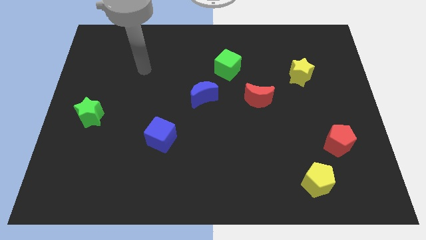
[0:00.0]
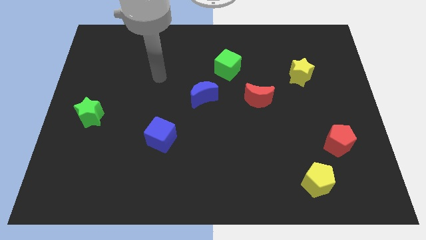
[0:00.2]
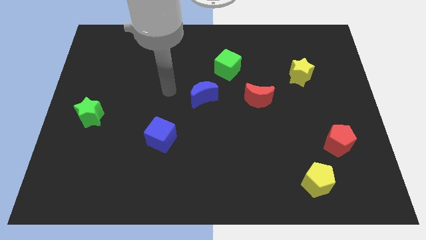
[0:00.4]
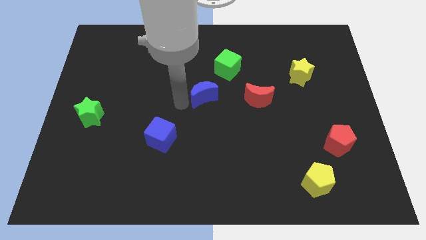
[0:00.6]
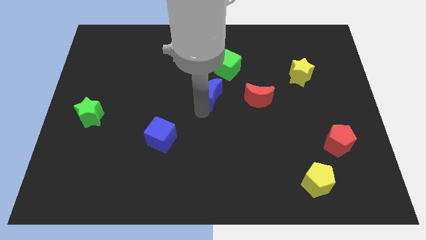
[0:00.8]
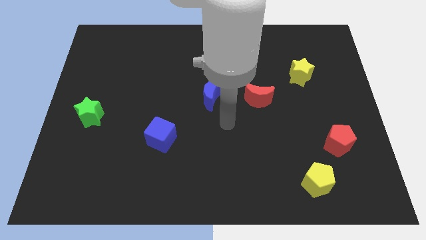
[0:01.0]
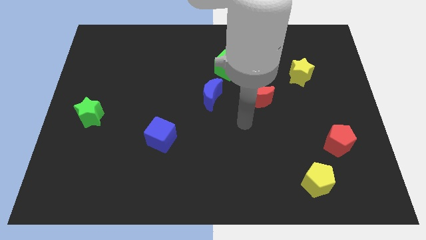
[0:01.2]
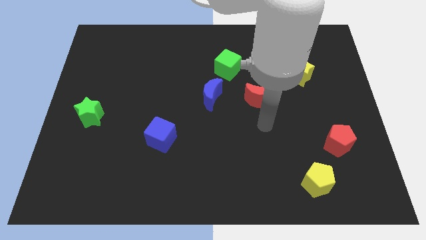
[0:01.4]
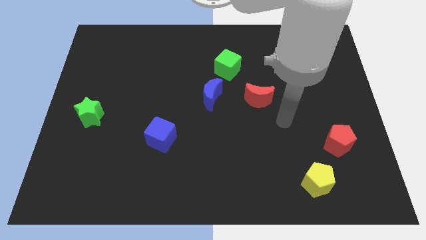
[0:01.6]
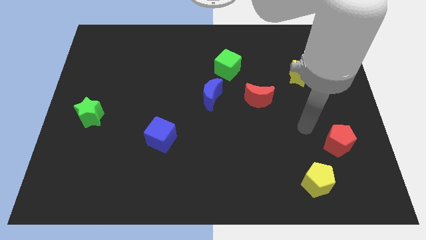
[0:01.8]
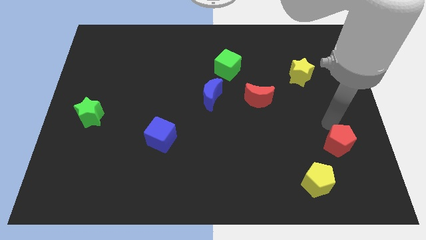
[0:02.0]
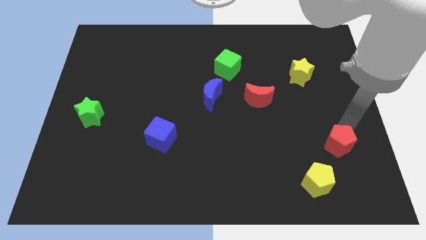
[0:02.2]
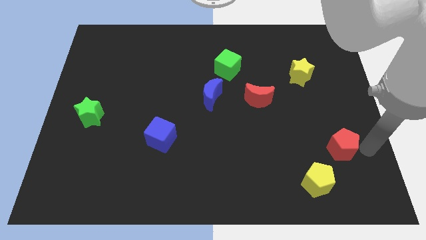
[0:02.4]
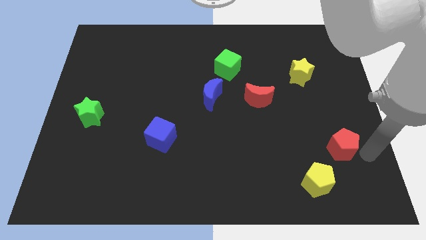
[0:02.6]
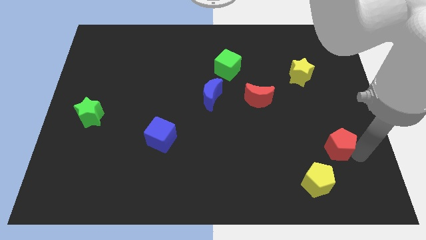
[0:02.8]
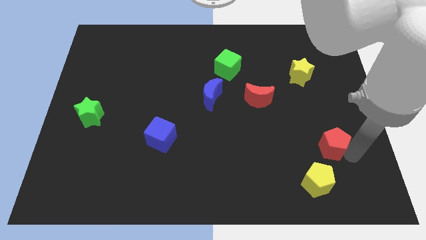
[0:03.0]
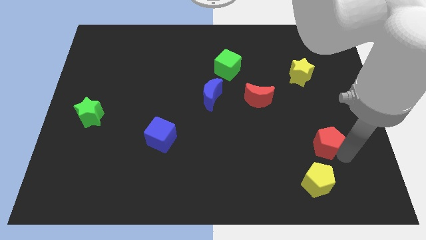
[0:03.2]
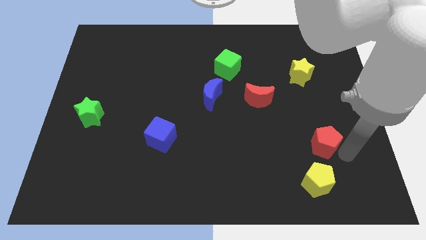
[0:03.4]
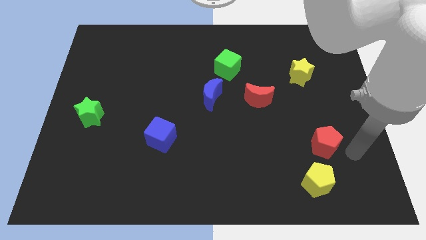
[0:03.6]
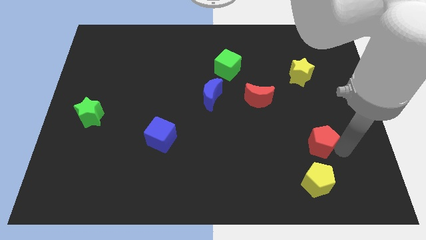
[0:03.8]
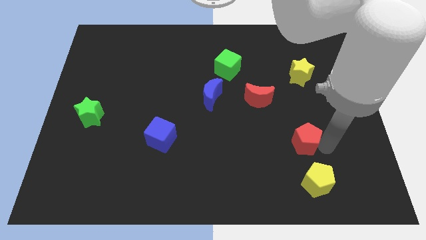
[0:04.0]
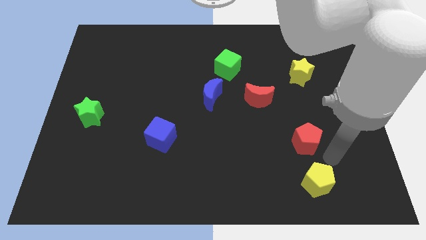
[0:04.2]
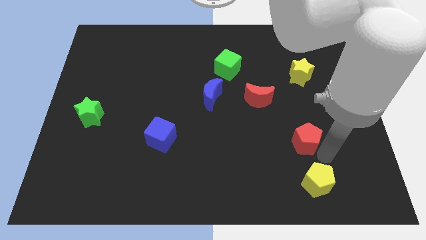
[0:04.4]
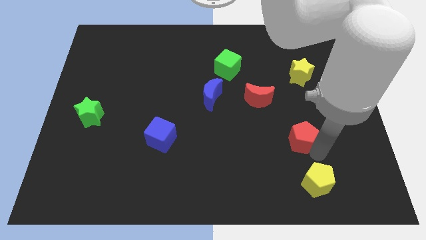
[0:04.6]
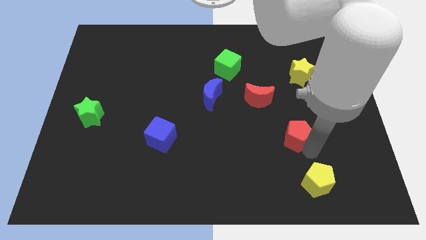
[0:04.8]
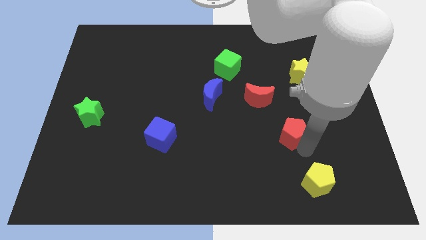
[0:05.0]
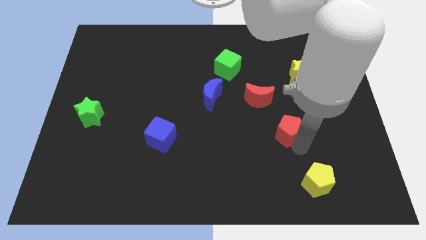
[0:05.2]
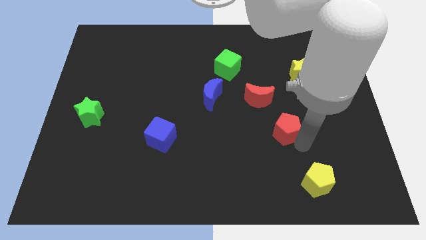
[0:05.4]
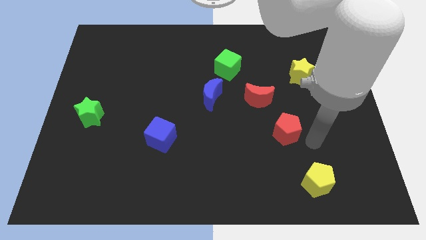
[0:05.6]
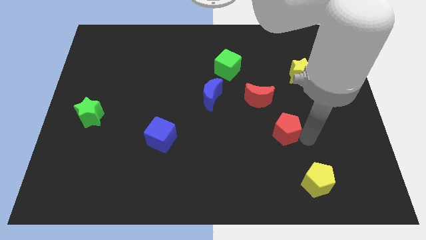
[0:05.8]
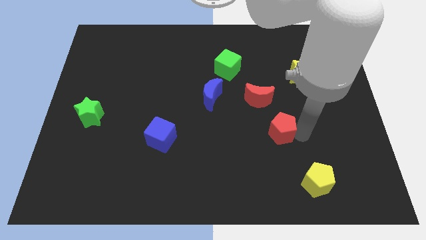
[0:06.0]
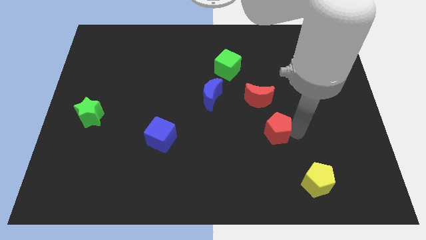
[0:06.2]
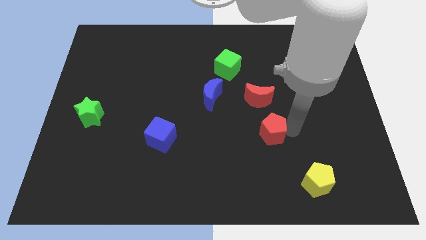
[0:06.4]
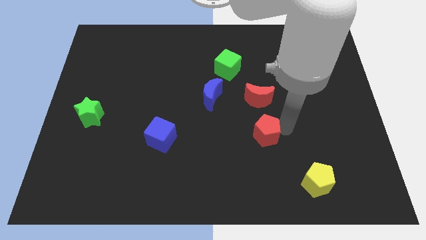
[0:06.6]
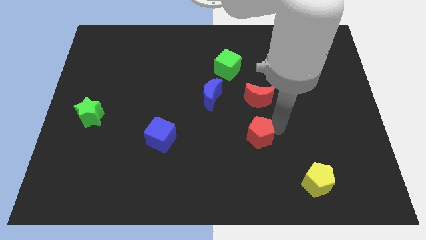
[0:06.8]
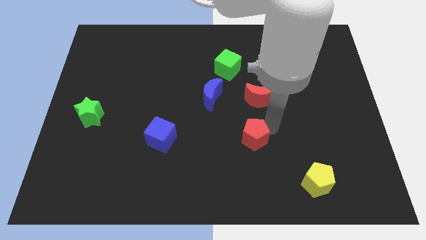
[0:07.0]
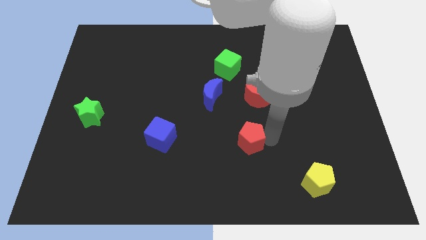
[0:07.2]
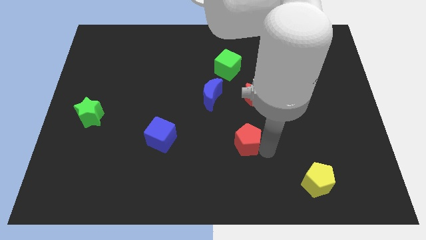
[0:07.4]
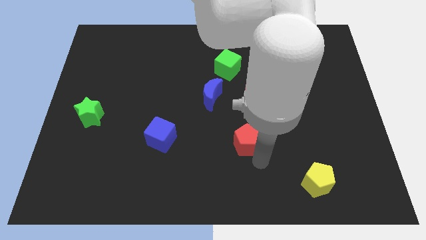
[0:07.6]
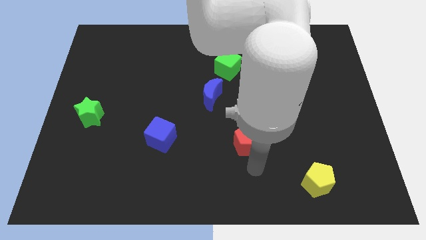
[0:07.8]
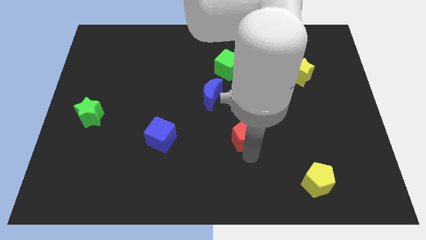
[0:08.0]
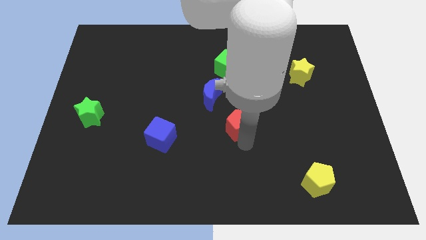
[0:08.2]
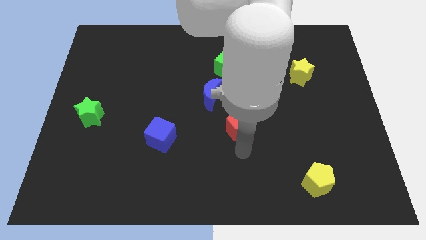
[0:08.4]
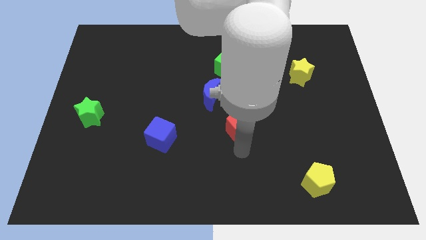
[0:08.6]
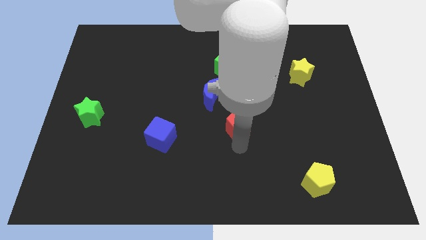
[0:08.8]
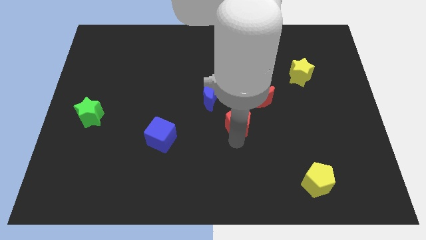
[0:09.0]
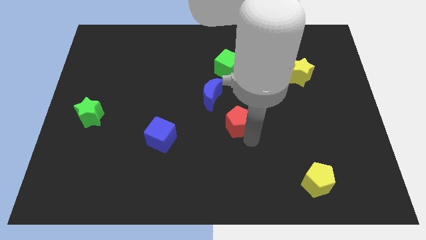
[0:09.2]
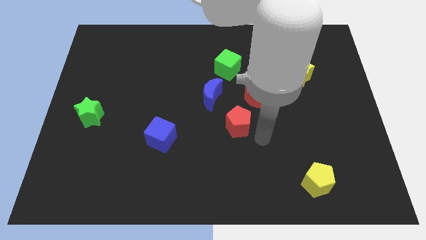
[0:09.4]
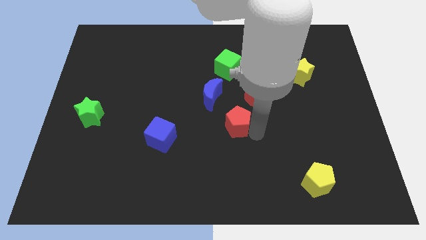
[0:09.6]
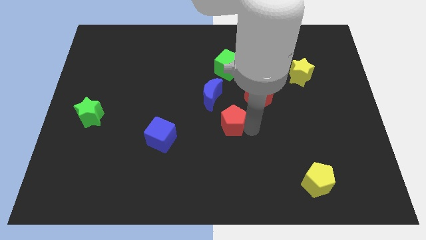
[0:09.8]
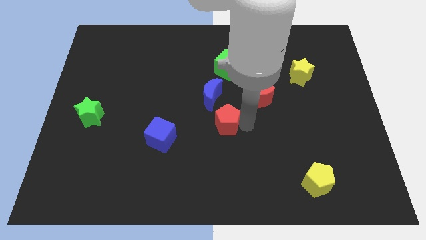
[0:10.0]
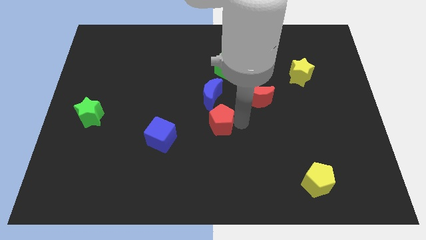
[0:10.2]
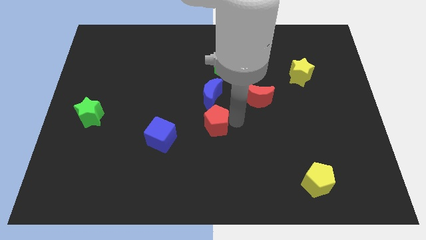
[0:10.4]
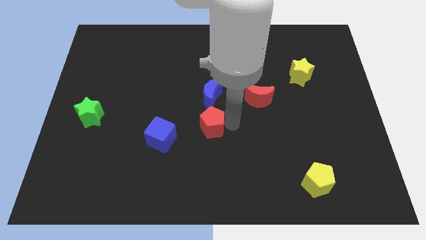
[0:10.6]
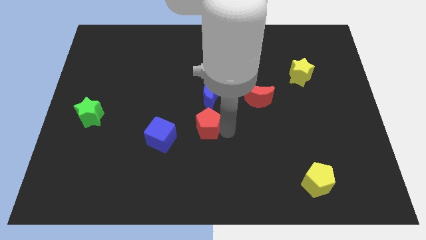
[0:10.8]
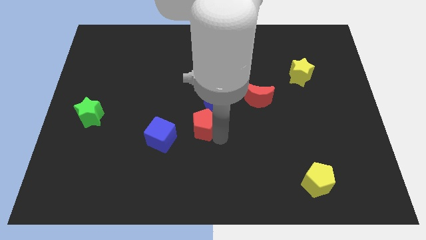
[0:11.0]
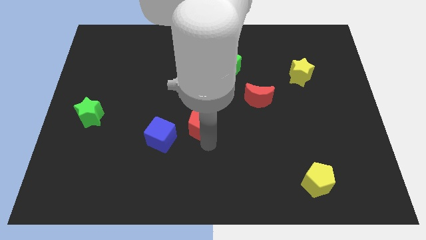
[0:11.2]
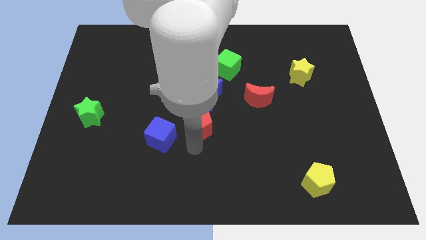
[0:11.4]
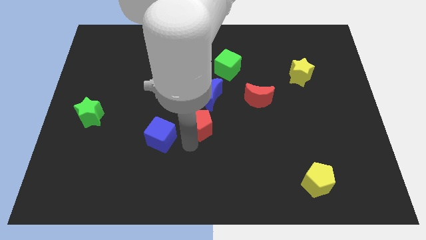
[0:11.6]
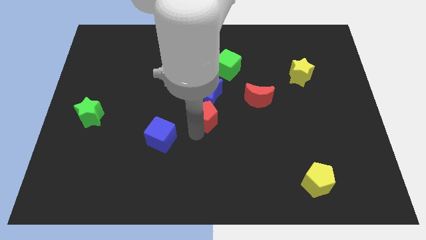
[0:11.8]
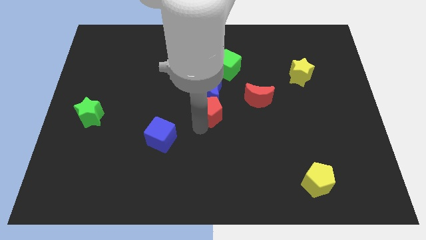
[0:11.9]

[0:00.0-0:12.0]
slide the red pentagon close to the blue moon

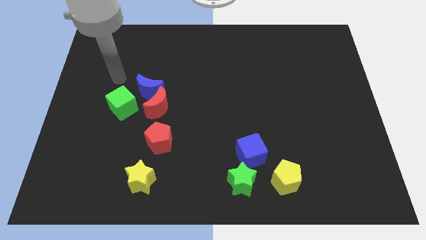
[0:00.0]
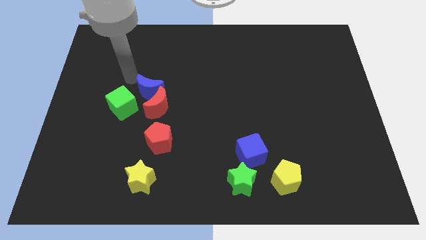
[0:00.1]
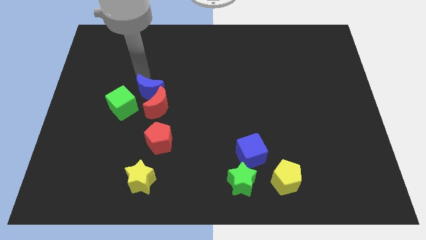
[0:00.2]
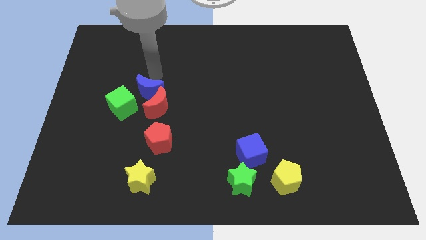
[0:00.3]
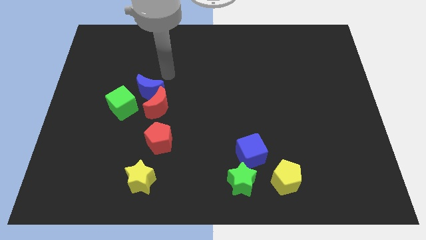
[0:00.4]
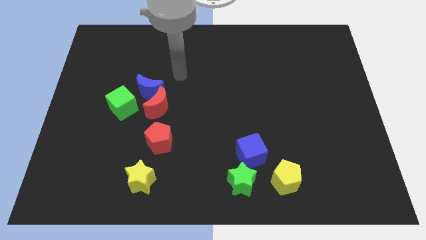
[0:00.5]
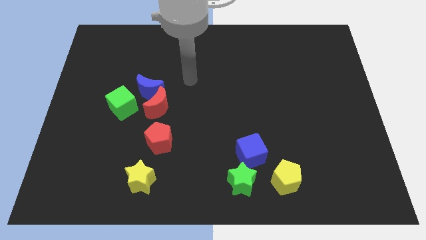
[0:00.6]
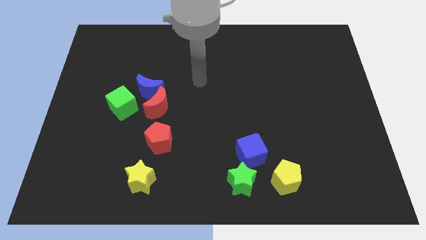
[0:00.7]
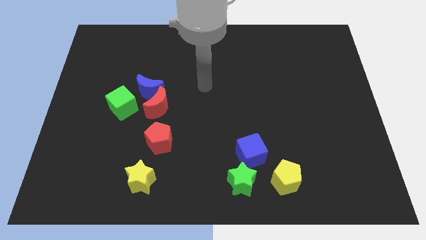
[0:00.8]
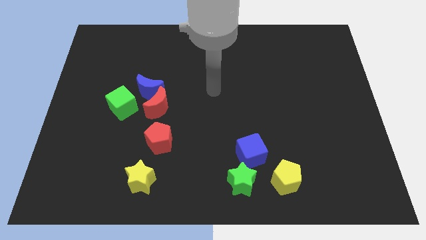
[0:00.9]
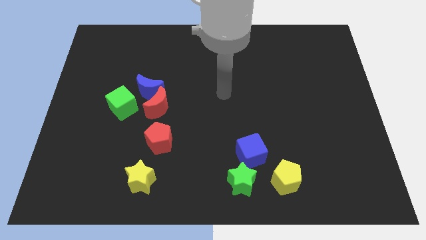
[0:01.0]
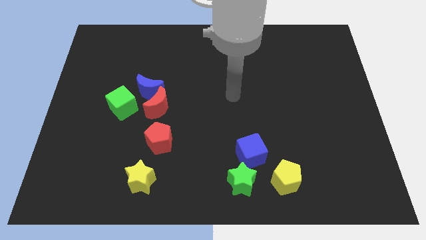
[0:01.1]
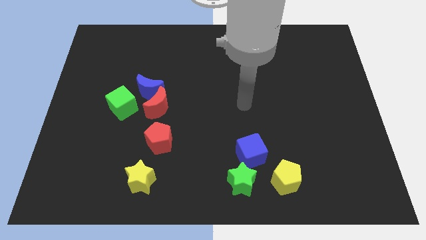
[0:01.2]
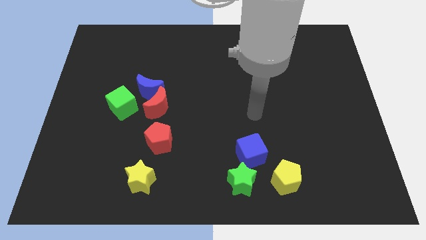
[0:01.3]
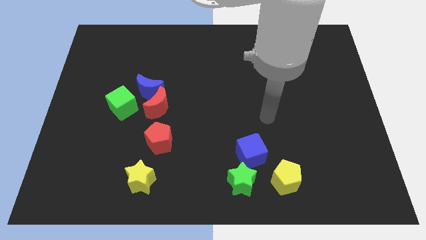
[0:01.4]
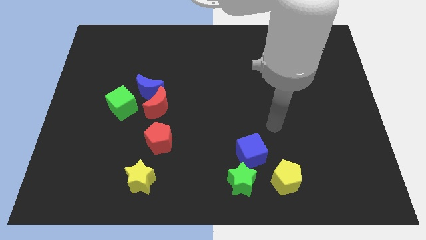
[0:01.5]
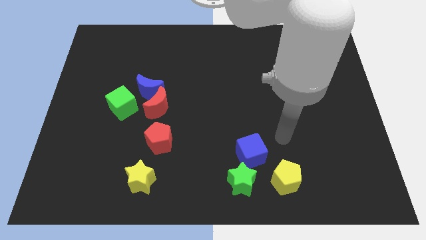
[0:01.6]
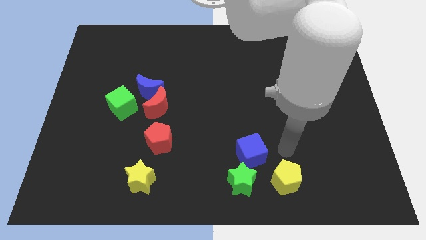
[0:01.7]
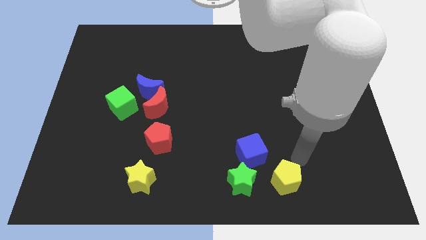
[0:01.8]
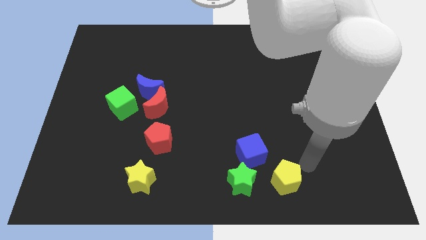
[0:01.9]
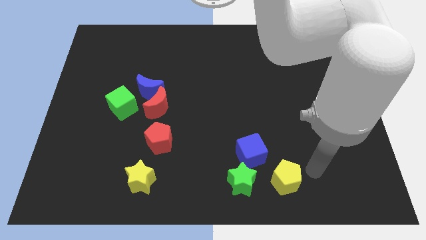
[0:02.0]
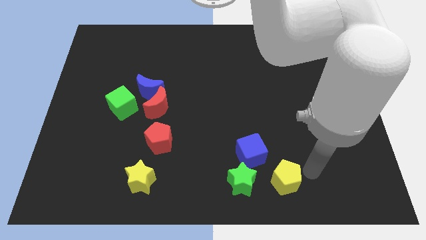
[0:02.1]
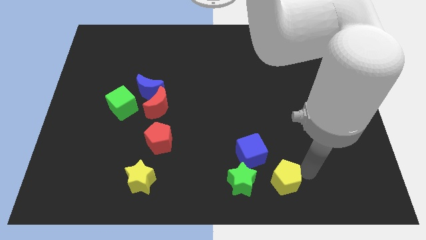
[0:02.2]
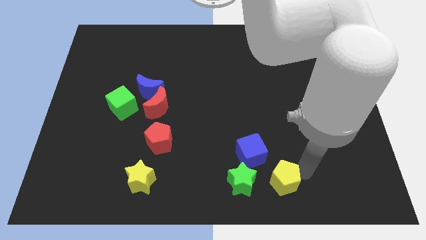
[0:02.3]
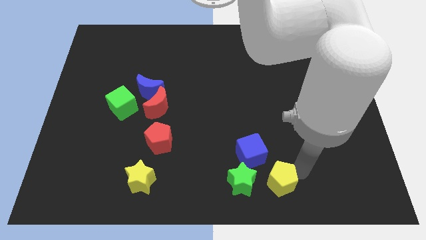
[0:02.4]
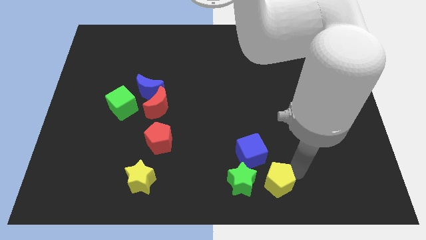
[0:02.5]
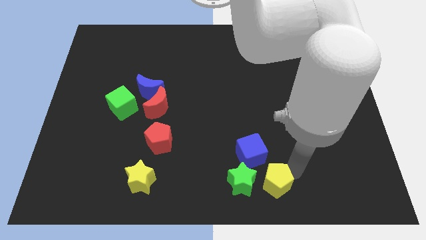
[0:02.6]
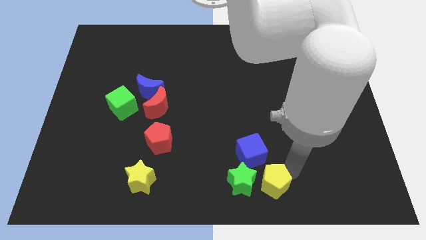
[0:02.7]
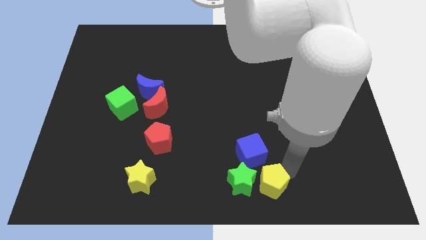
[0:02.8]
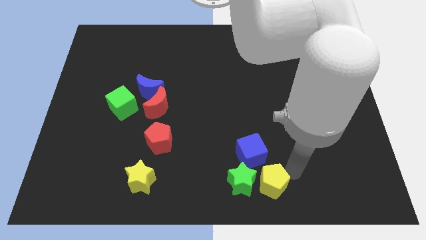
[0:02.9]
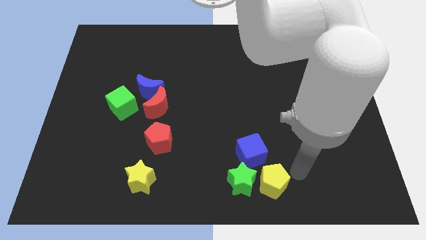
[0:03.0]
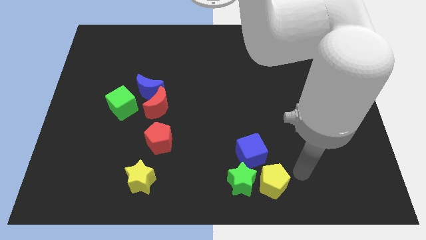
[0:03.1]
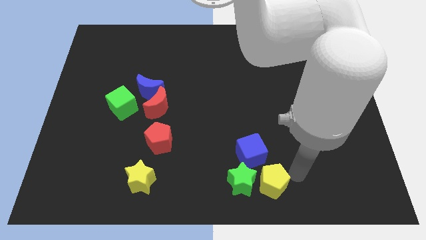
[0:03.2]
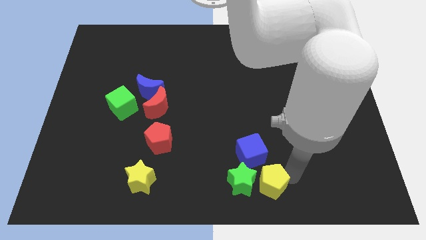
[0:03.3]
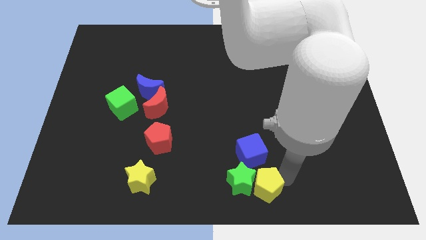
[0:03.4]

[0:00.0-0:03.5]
move the yellow pentagon to the green star
